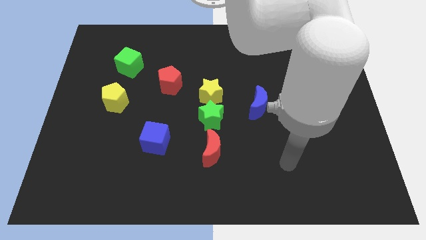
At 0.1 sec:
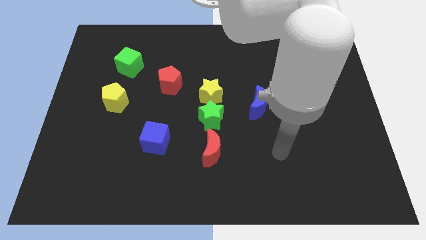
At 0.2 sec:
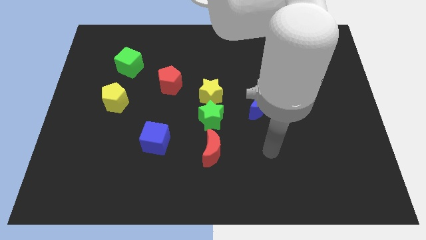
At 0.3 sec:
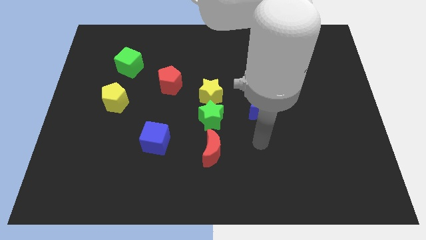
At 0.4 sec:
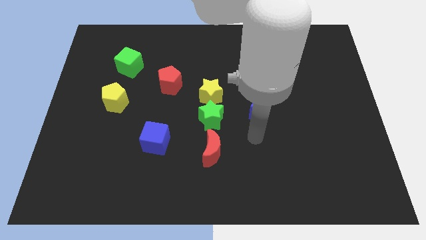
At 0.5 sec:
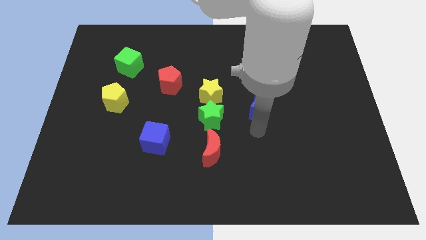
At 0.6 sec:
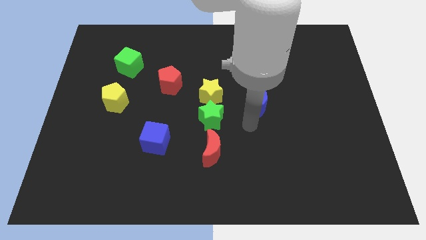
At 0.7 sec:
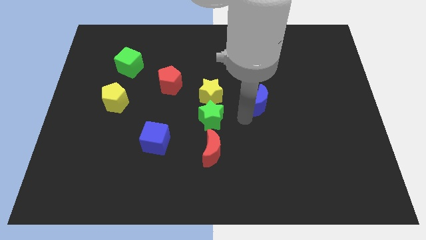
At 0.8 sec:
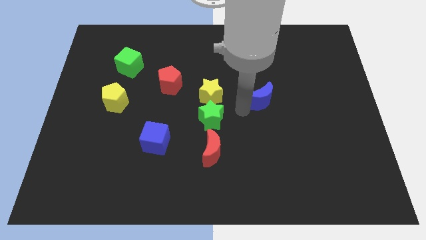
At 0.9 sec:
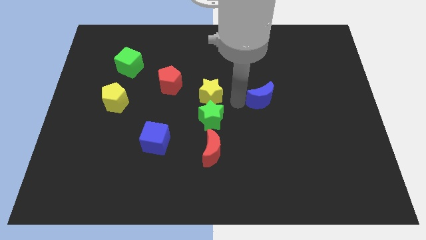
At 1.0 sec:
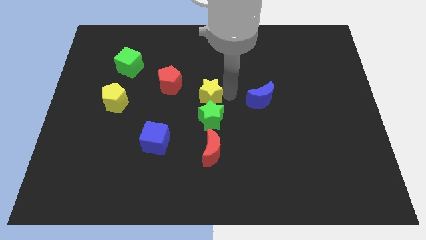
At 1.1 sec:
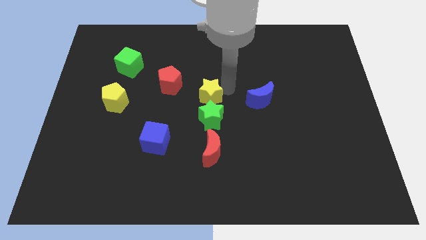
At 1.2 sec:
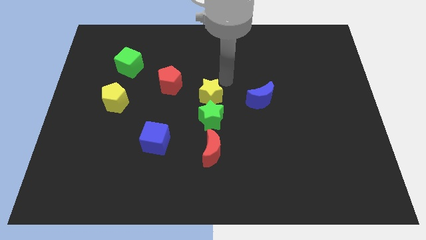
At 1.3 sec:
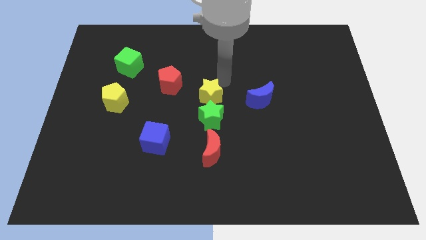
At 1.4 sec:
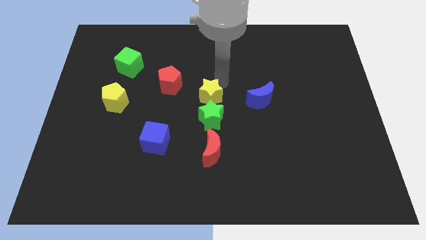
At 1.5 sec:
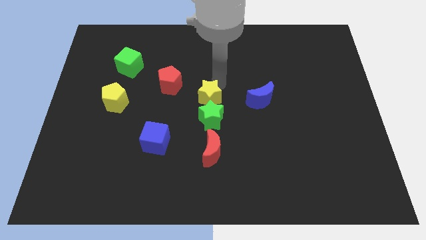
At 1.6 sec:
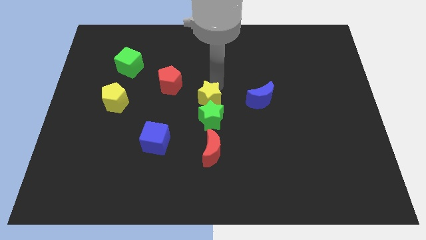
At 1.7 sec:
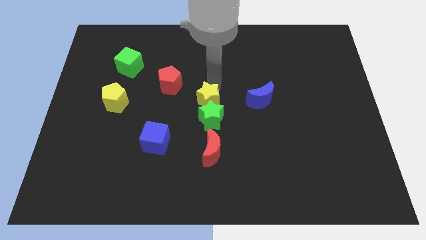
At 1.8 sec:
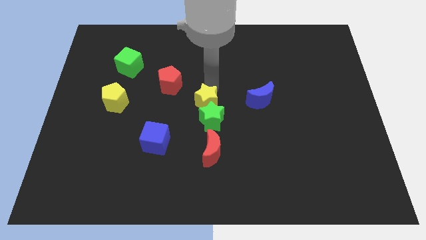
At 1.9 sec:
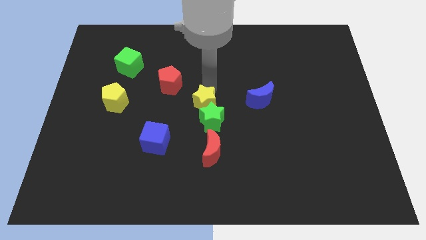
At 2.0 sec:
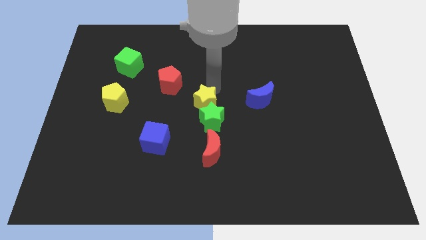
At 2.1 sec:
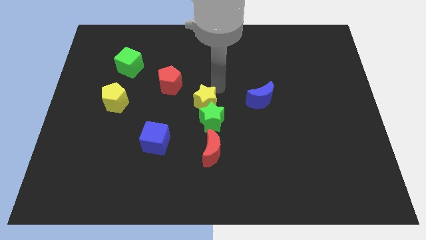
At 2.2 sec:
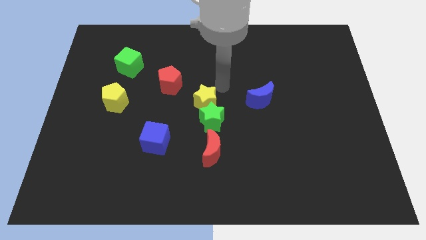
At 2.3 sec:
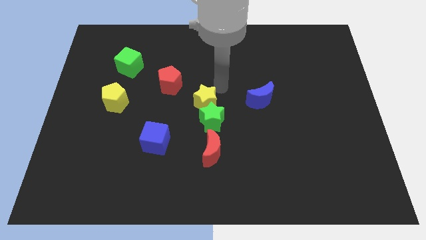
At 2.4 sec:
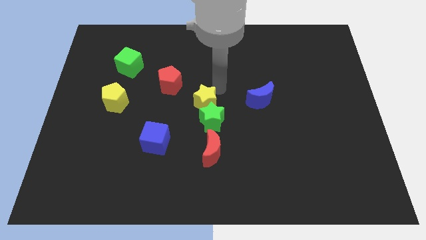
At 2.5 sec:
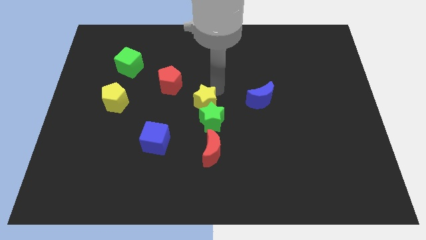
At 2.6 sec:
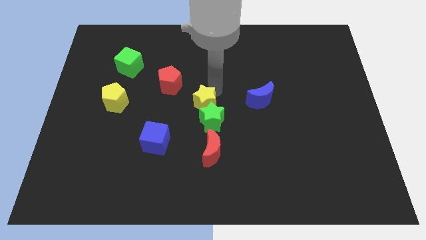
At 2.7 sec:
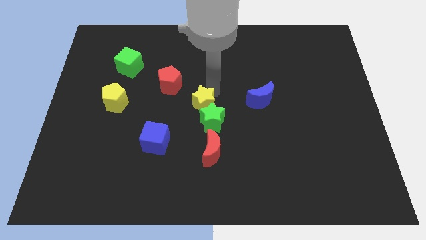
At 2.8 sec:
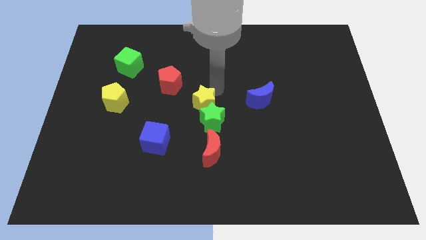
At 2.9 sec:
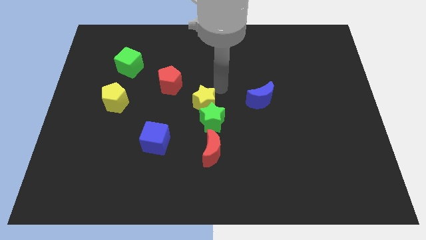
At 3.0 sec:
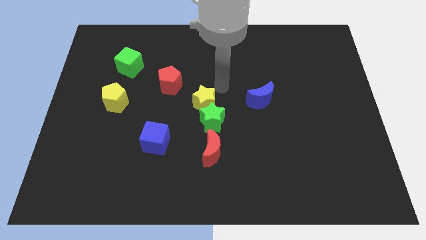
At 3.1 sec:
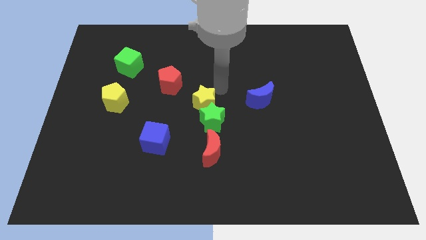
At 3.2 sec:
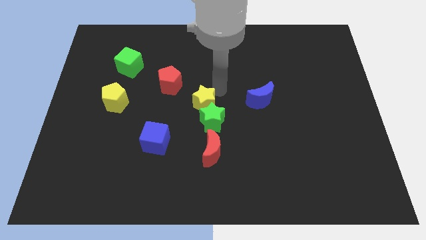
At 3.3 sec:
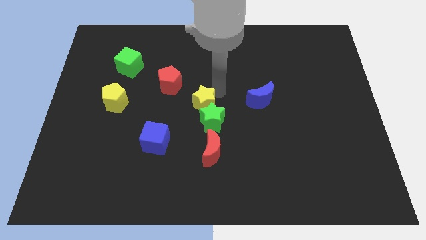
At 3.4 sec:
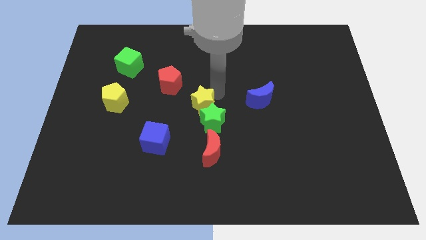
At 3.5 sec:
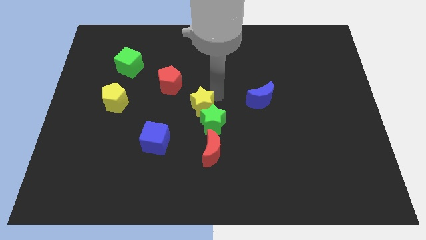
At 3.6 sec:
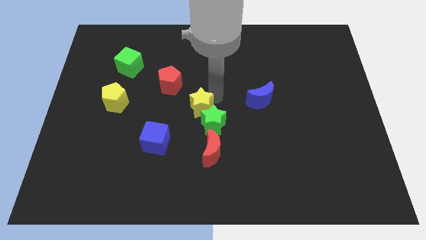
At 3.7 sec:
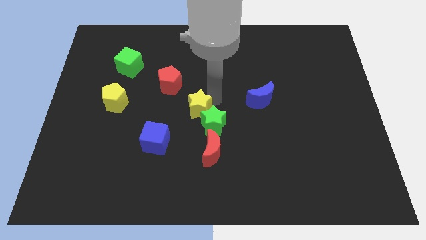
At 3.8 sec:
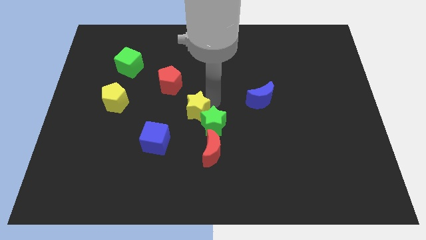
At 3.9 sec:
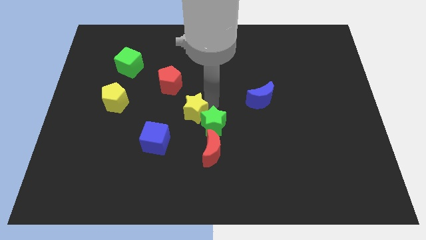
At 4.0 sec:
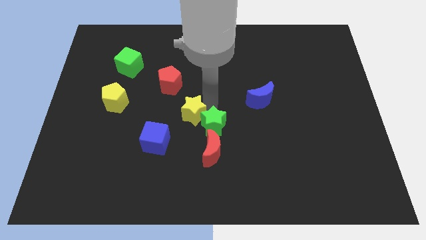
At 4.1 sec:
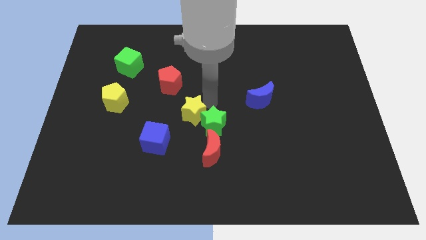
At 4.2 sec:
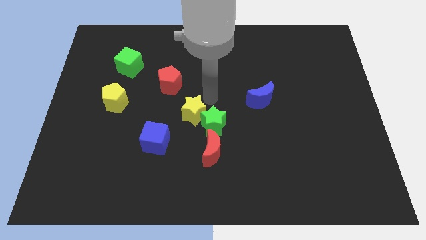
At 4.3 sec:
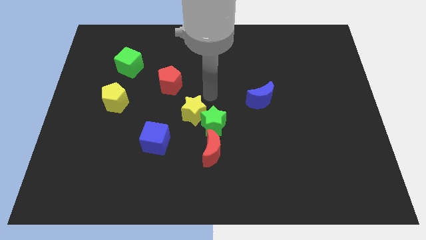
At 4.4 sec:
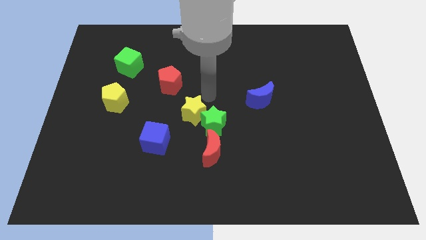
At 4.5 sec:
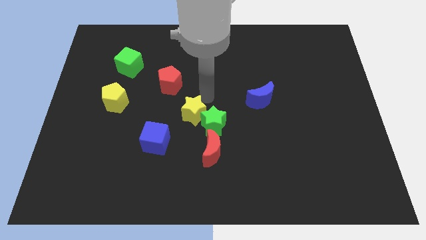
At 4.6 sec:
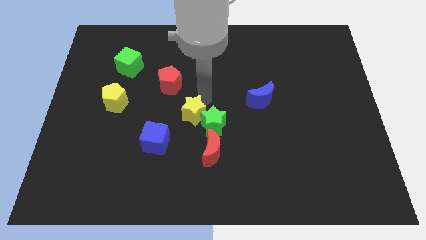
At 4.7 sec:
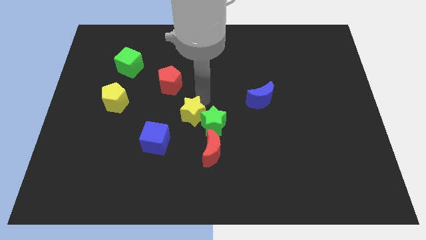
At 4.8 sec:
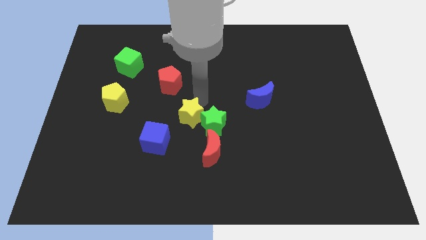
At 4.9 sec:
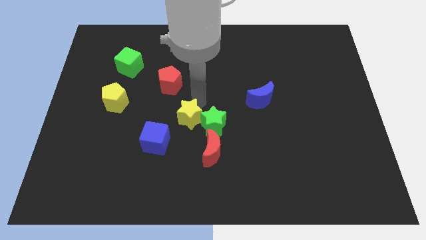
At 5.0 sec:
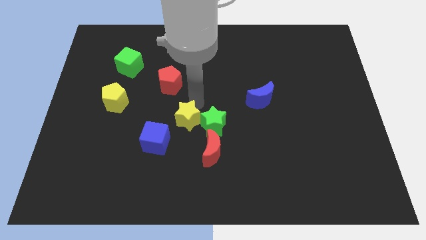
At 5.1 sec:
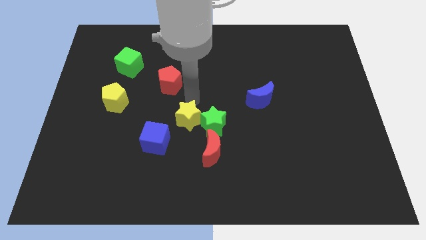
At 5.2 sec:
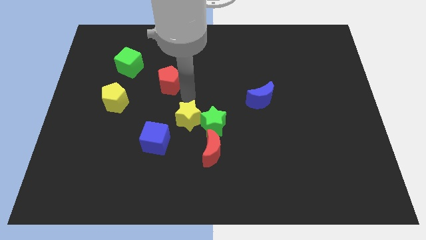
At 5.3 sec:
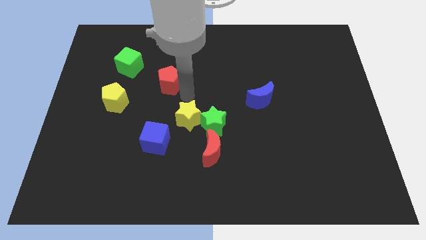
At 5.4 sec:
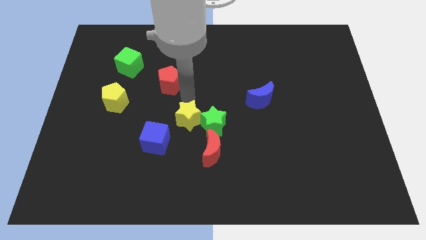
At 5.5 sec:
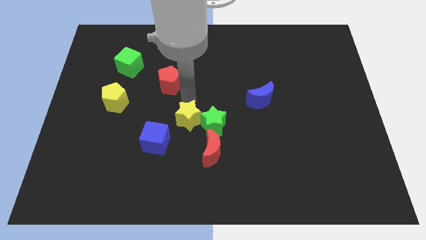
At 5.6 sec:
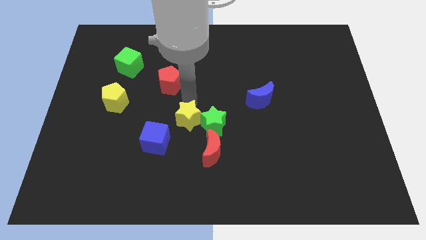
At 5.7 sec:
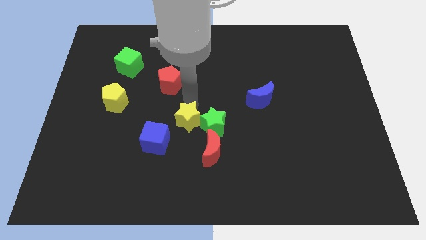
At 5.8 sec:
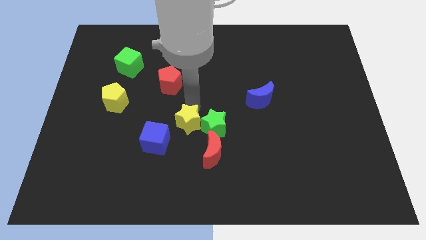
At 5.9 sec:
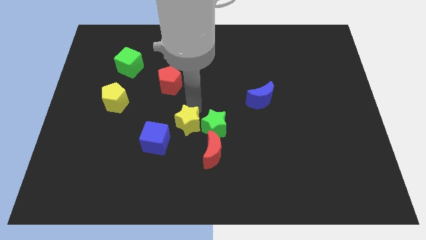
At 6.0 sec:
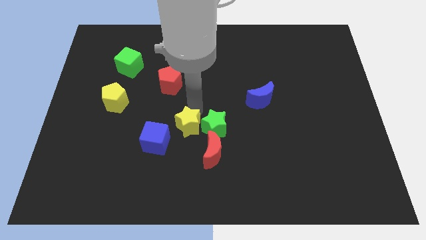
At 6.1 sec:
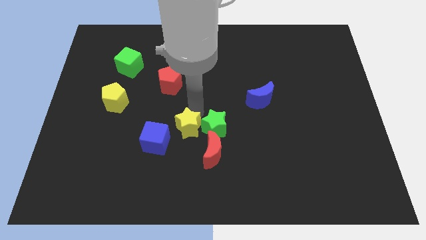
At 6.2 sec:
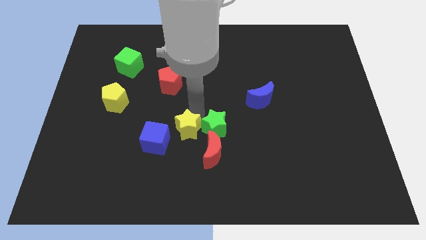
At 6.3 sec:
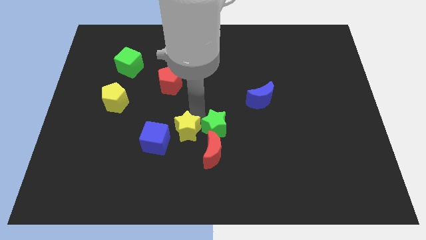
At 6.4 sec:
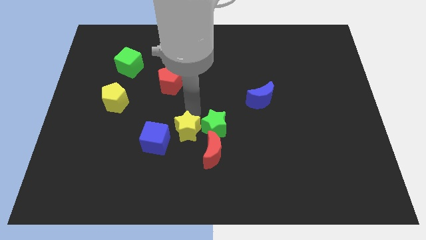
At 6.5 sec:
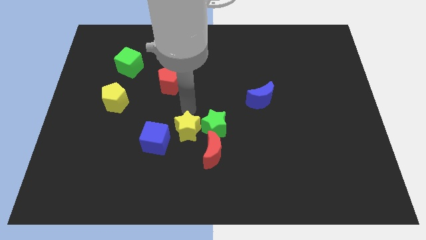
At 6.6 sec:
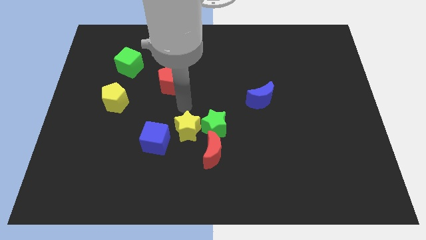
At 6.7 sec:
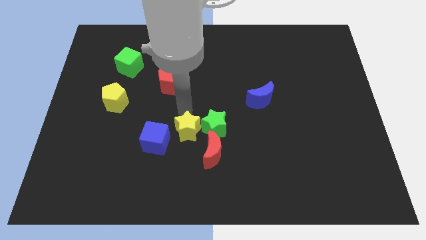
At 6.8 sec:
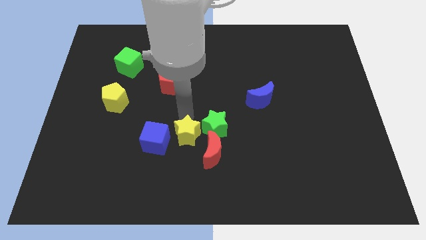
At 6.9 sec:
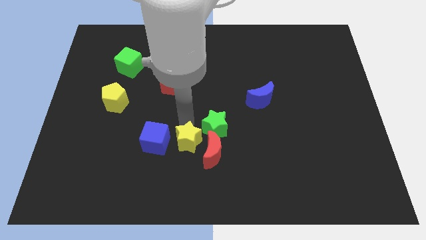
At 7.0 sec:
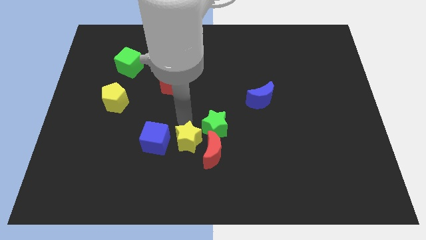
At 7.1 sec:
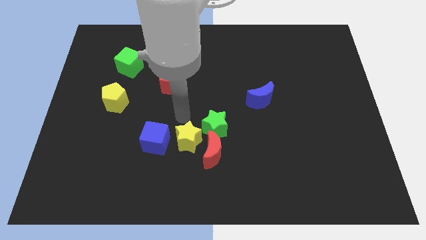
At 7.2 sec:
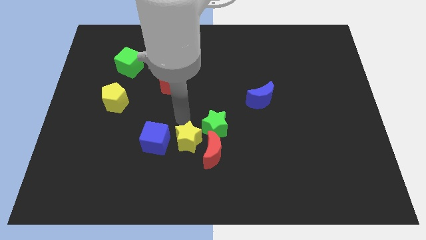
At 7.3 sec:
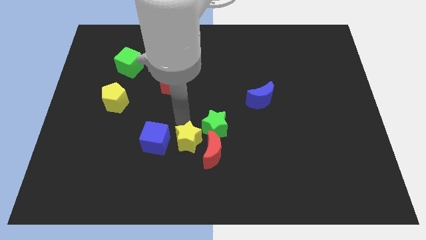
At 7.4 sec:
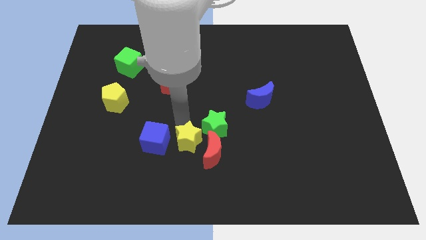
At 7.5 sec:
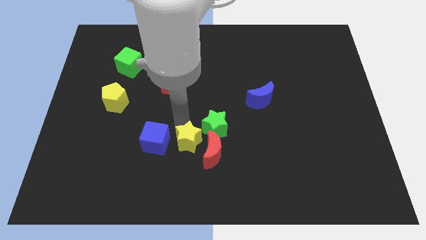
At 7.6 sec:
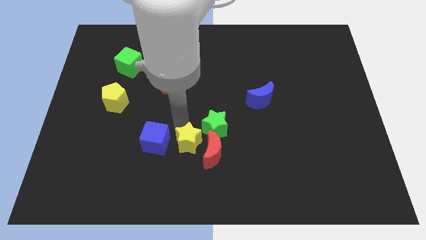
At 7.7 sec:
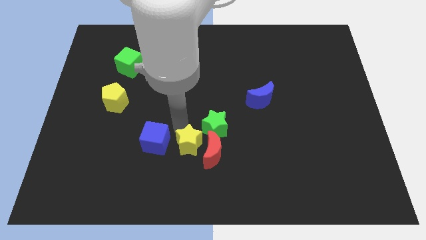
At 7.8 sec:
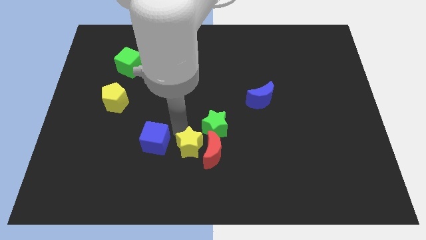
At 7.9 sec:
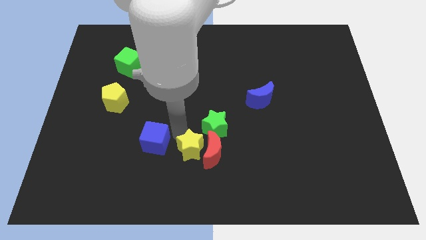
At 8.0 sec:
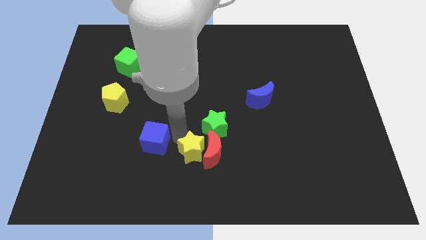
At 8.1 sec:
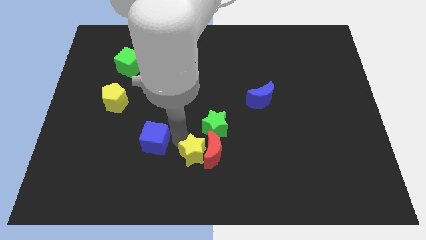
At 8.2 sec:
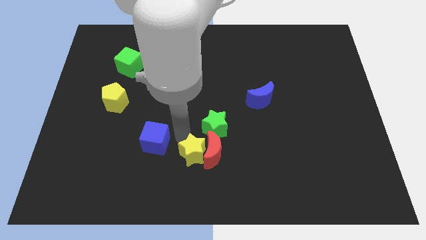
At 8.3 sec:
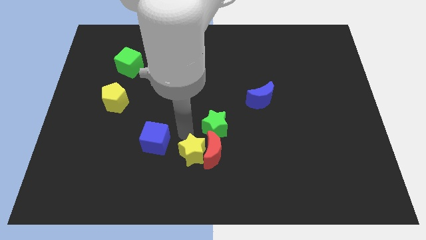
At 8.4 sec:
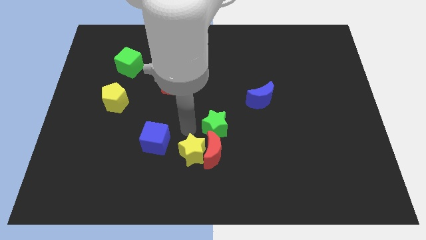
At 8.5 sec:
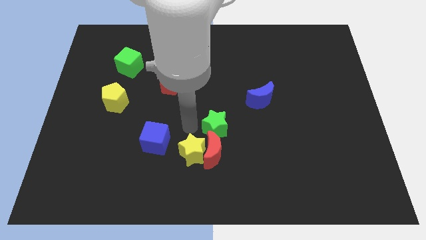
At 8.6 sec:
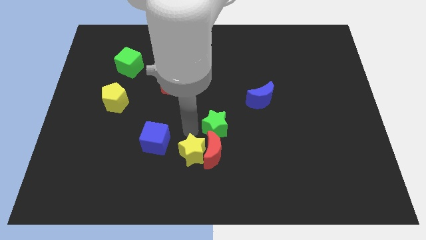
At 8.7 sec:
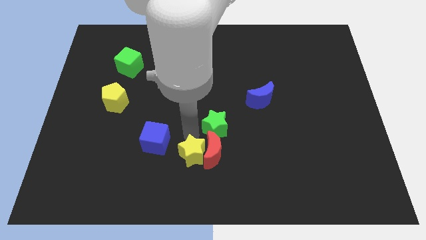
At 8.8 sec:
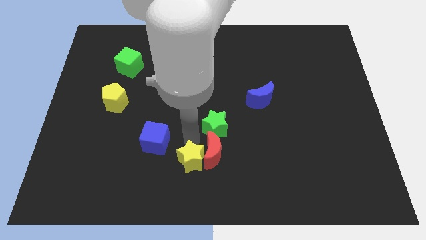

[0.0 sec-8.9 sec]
push the yellow star to the bottom
